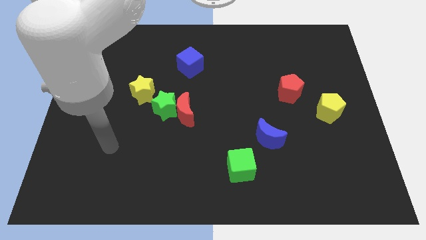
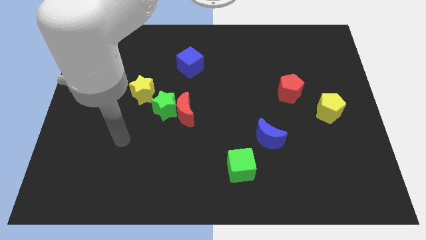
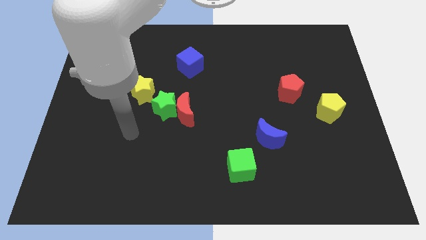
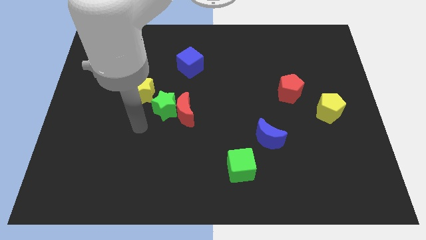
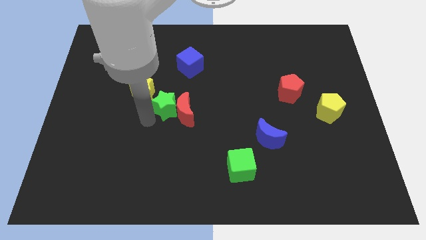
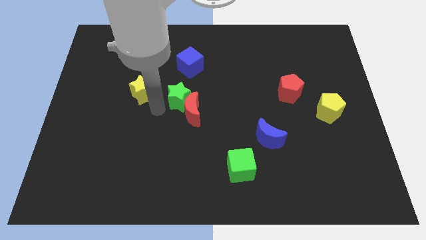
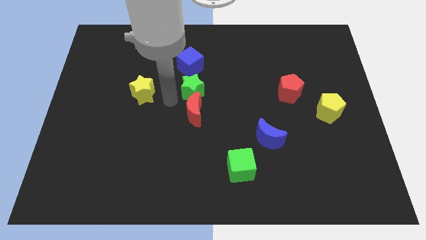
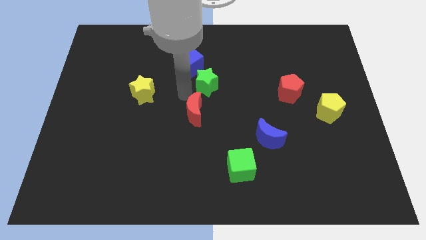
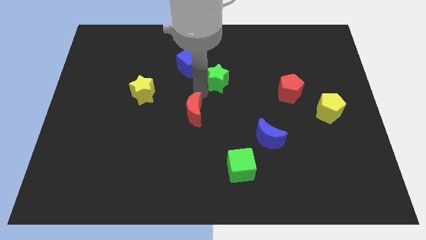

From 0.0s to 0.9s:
move the red moon away from the green star

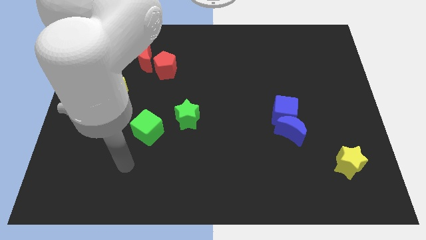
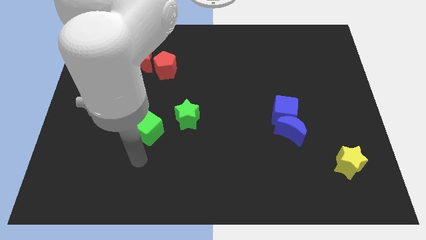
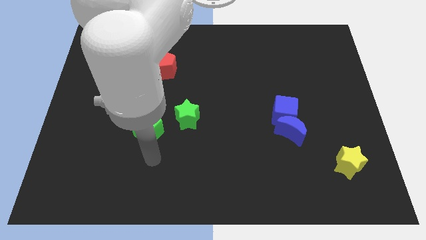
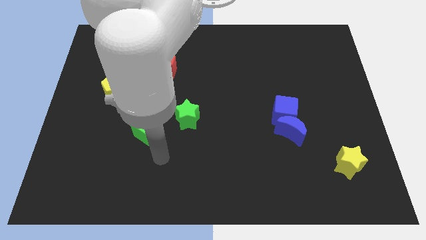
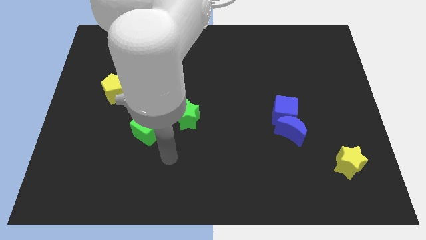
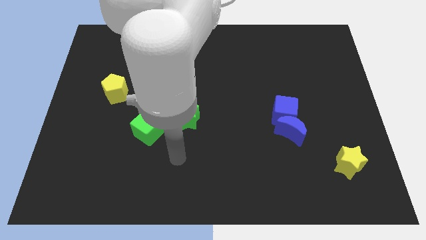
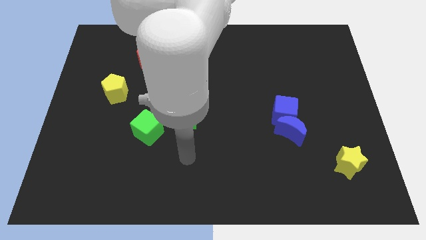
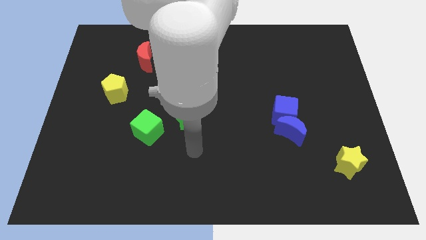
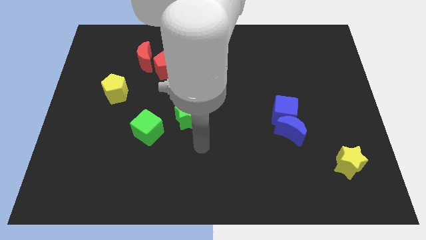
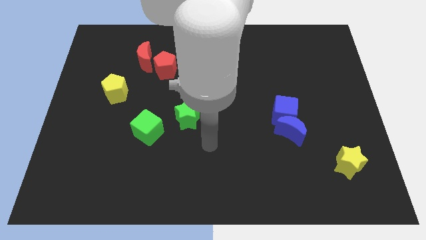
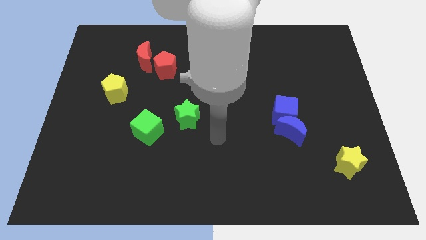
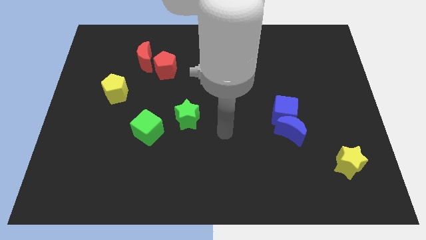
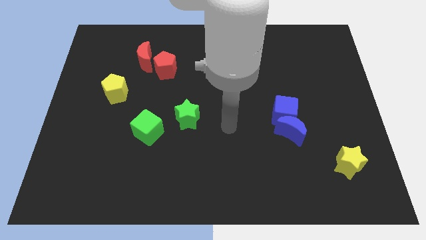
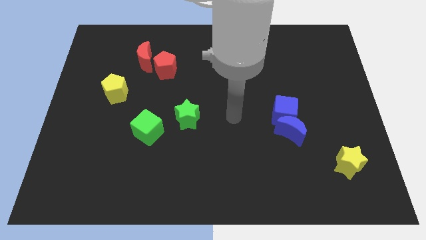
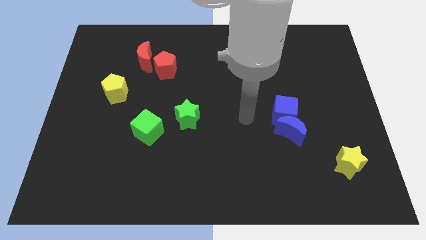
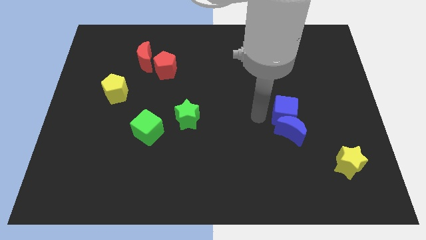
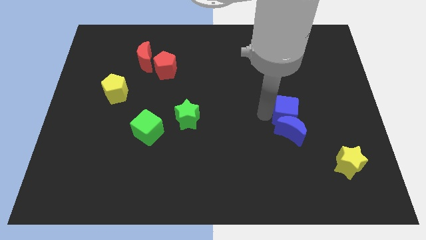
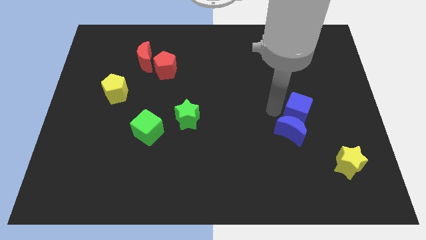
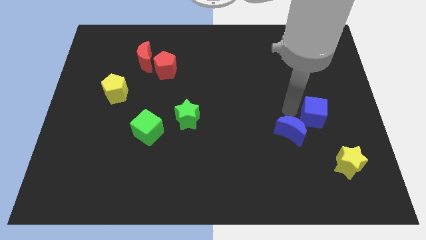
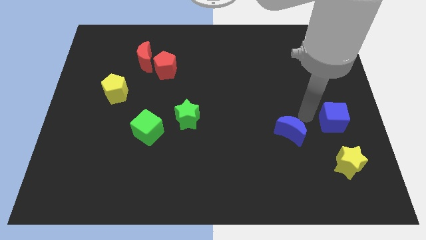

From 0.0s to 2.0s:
pull the blue moon apart from the blue cube

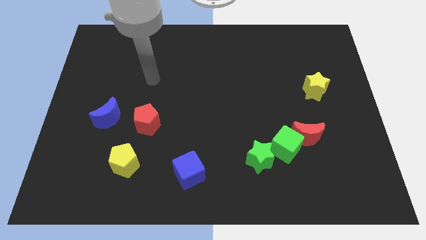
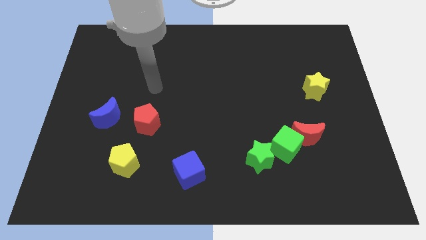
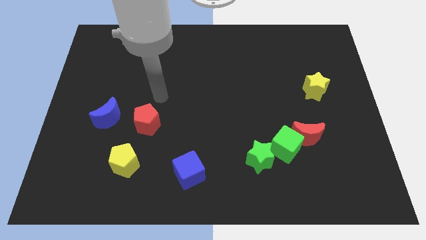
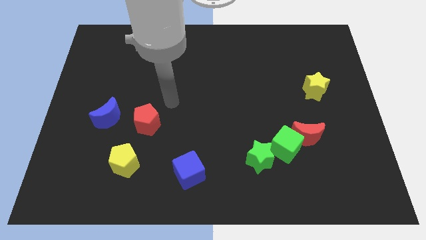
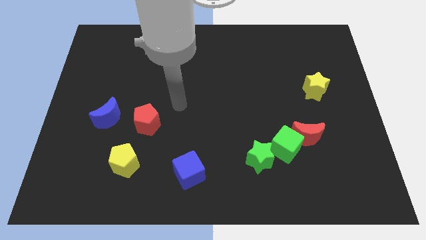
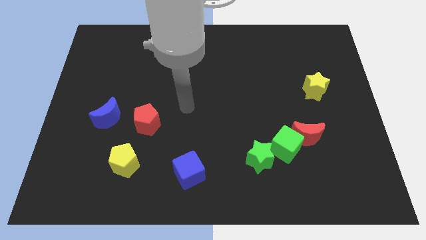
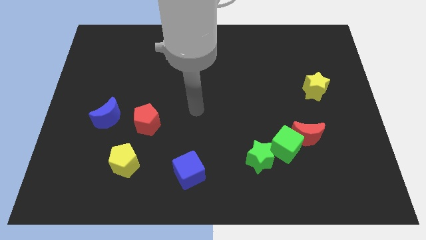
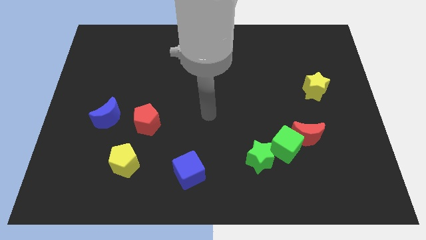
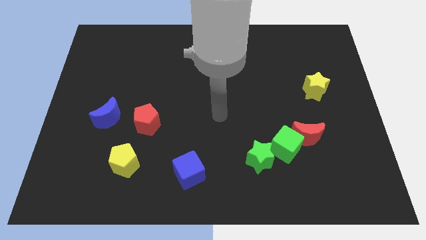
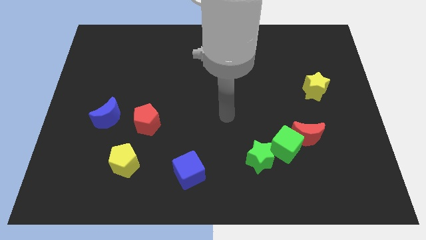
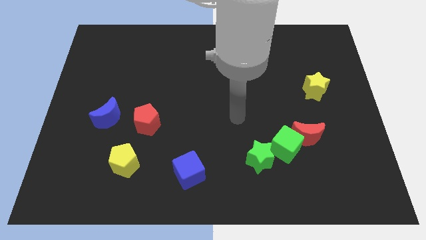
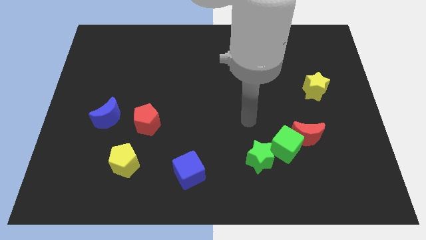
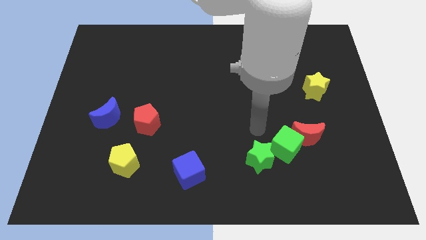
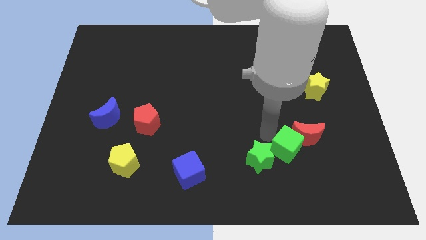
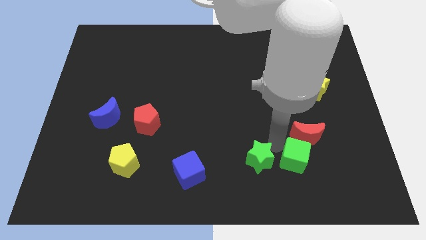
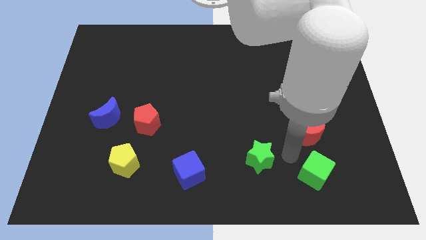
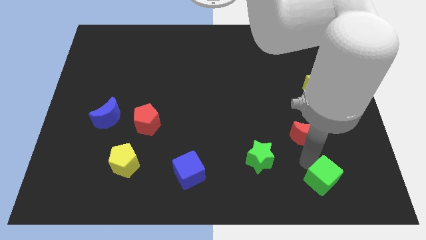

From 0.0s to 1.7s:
separate the red moon from the green cube

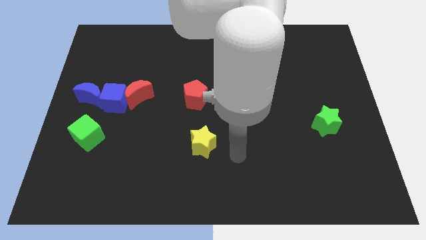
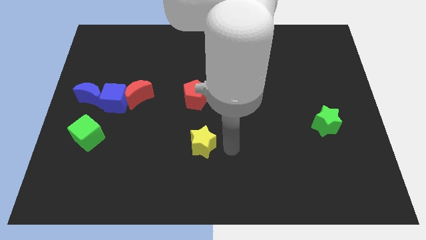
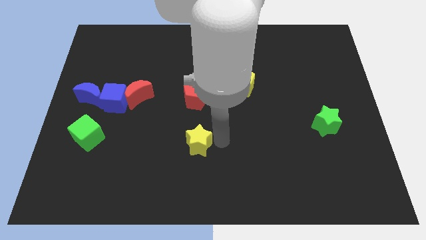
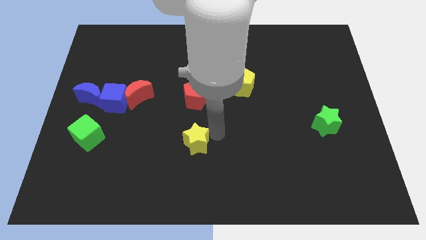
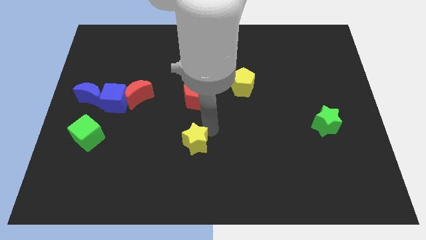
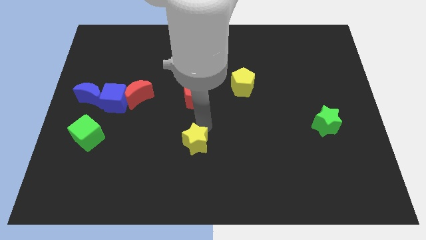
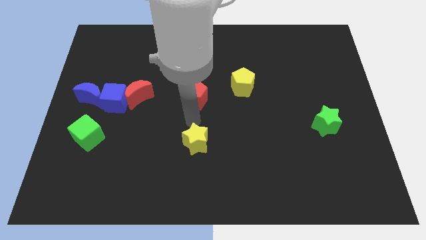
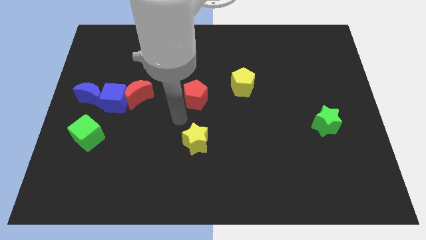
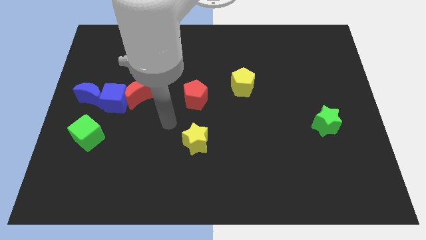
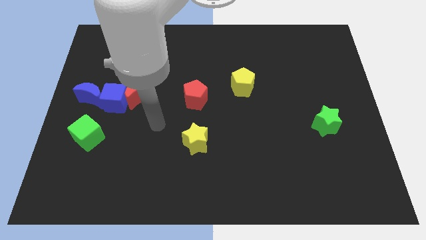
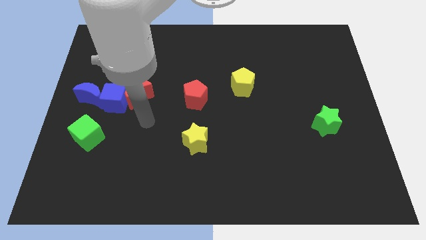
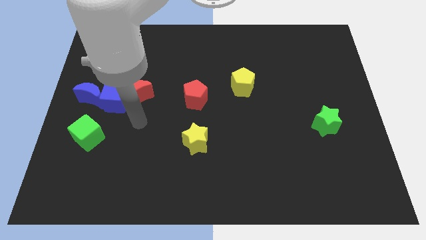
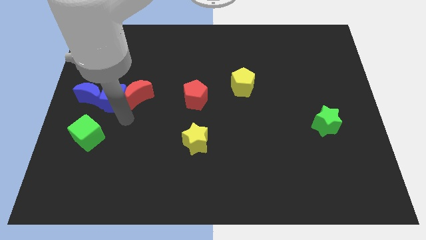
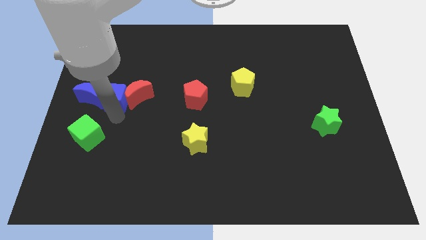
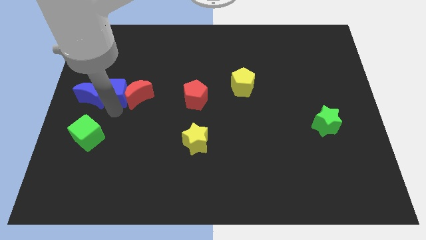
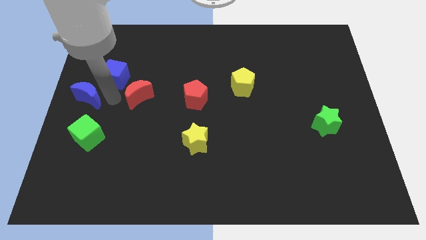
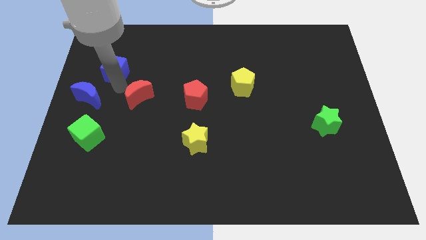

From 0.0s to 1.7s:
move the red moon away from the blue cube

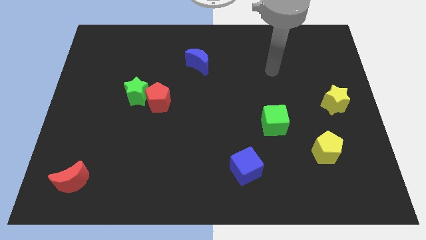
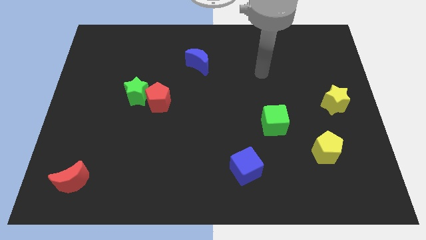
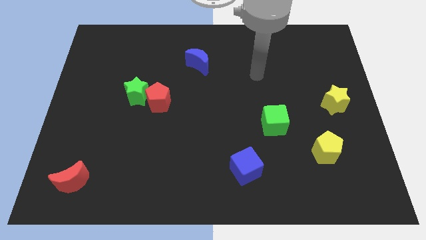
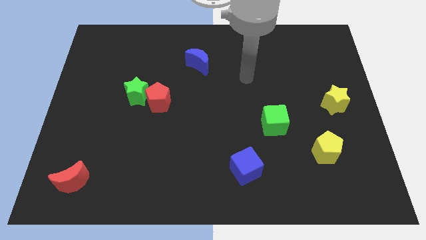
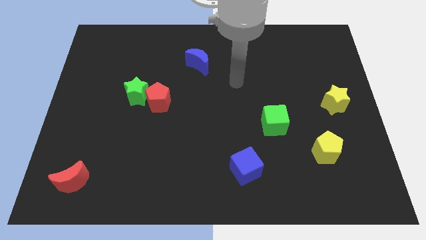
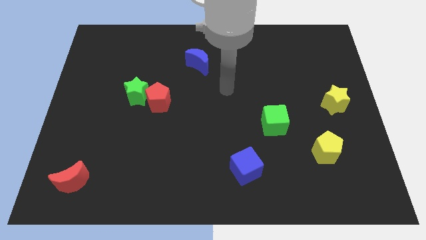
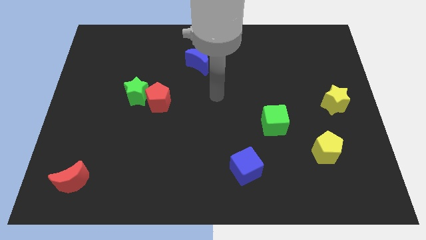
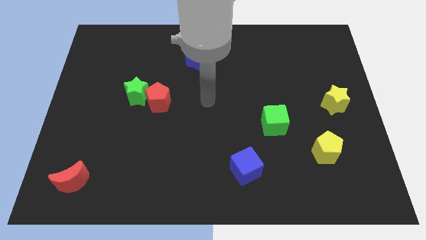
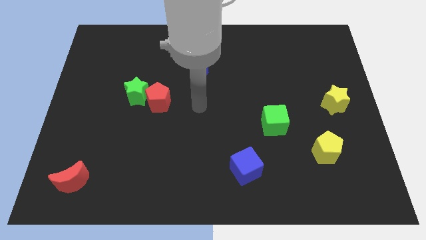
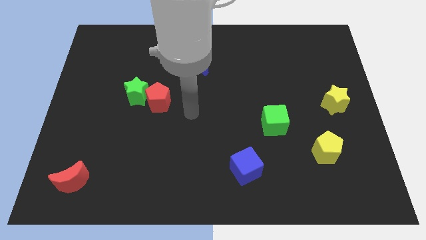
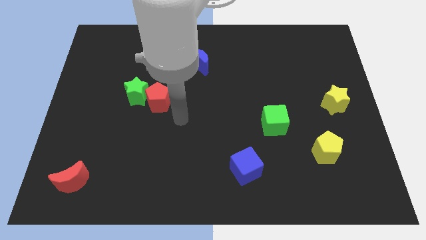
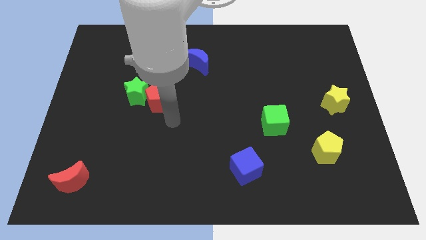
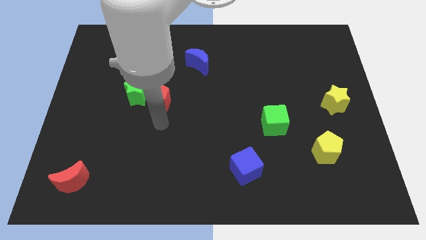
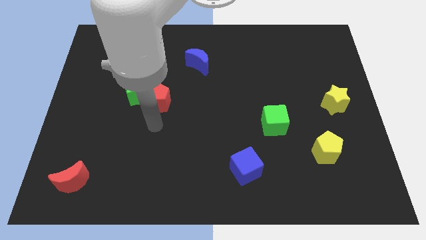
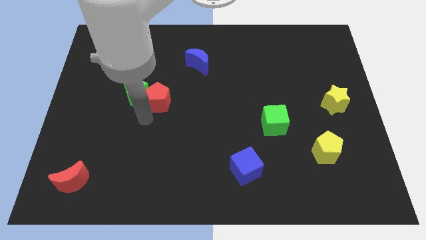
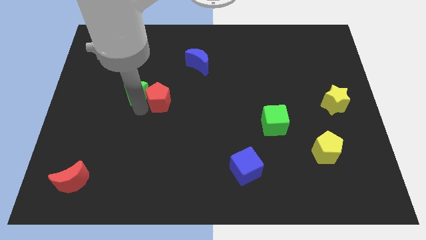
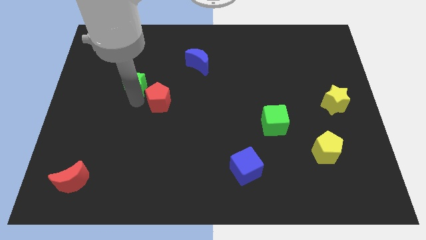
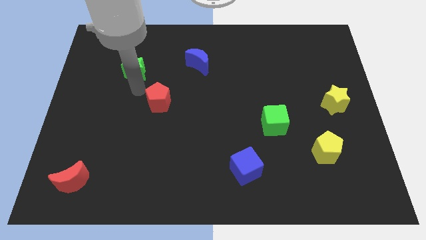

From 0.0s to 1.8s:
move the red pentagon away from the green star

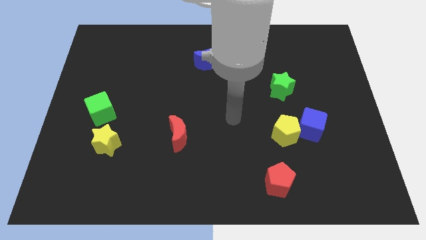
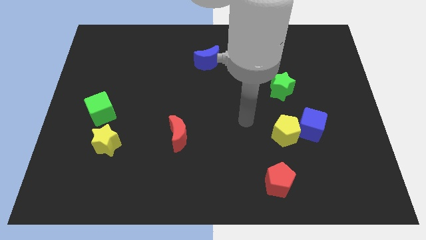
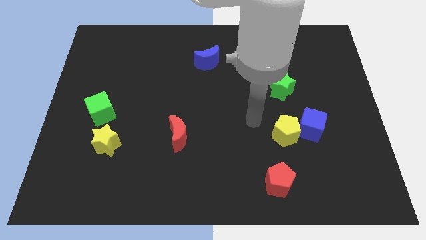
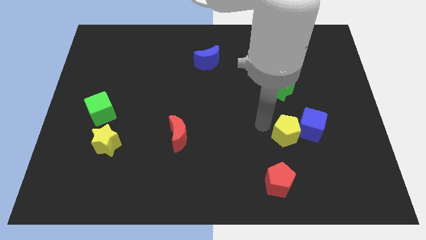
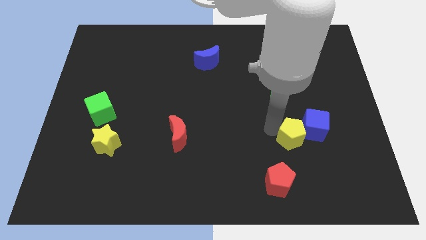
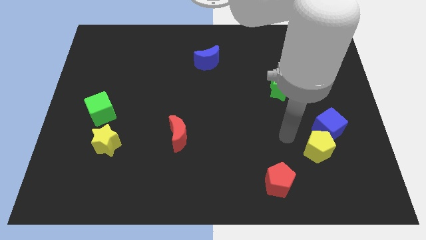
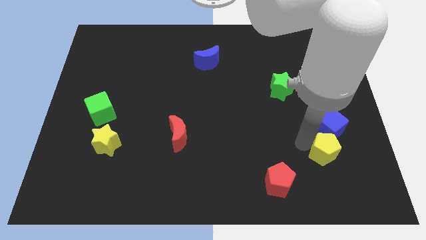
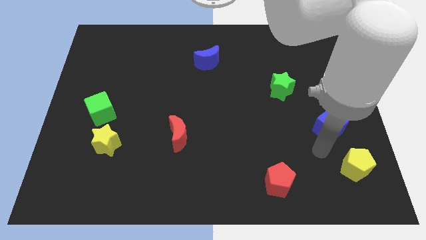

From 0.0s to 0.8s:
pull the blue cube apart from the yellow pentagon

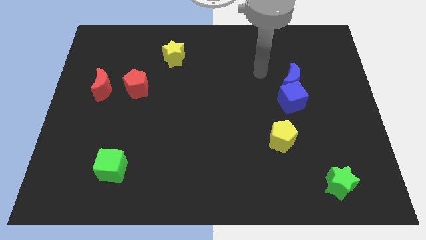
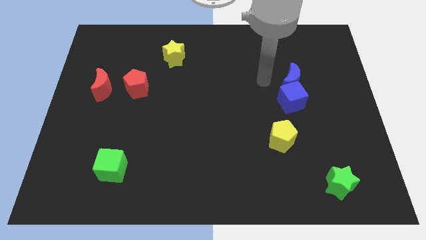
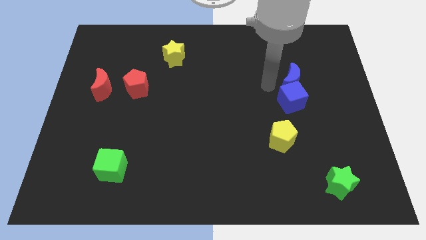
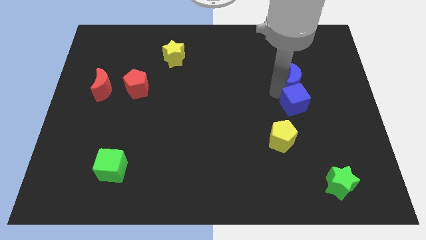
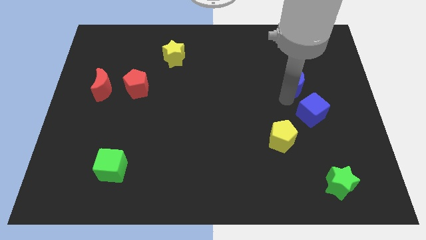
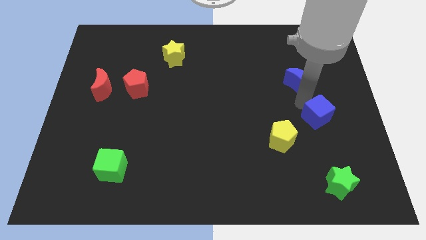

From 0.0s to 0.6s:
separate the blue moon from the blue cube
